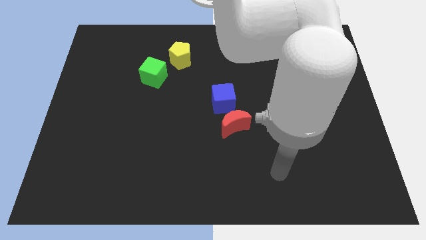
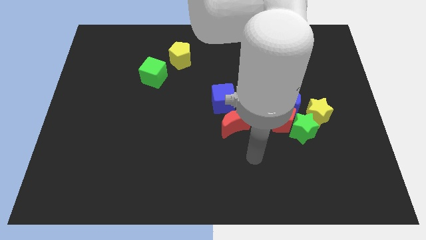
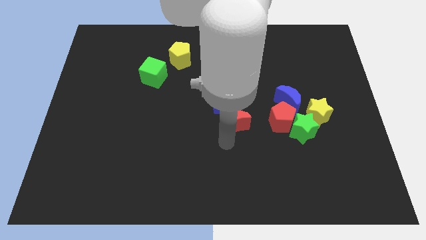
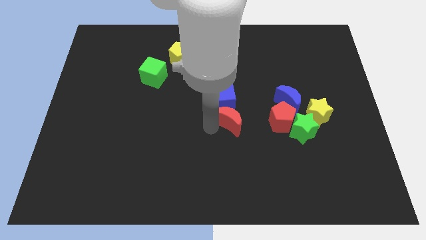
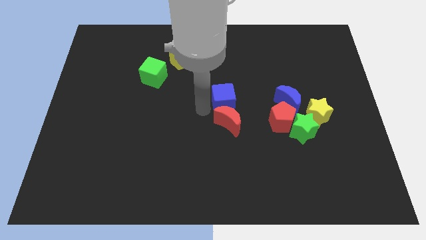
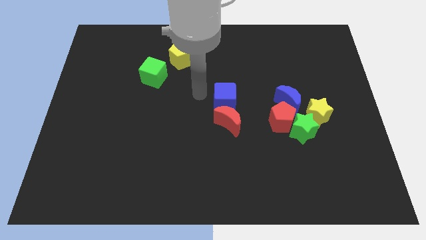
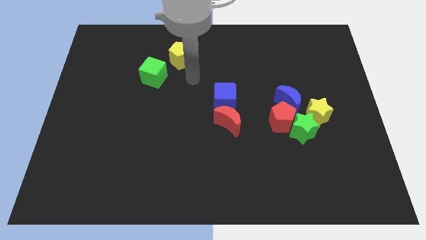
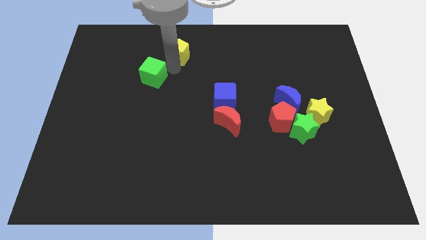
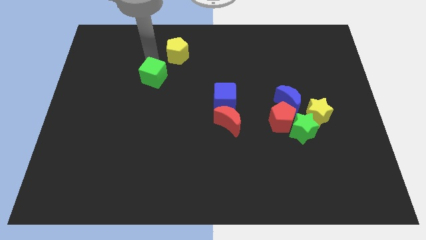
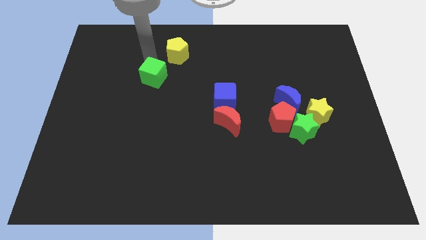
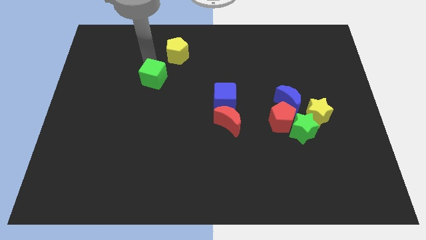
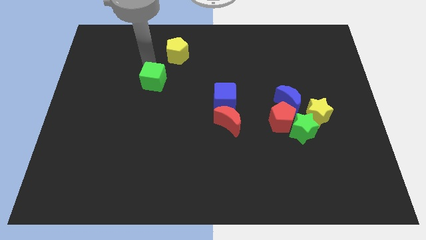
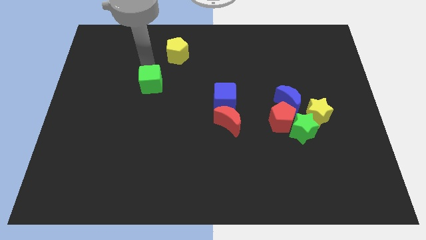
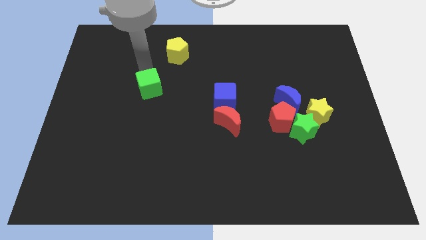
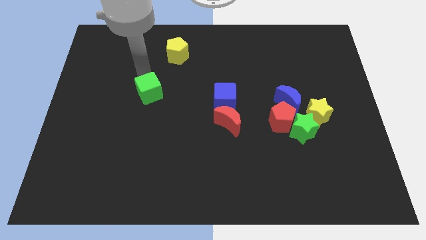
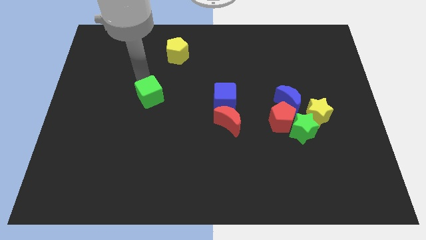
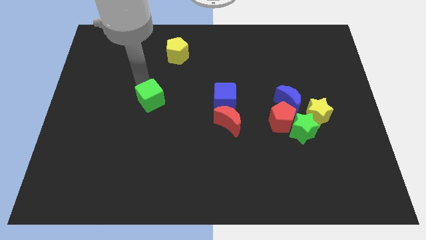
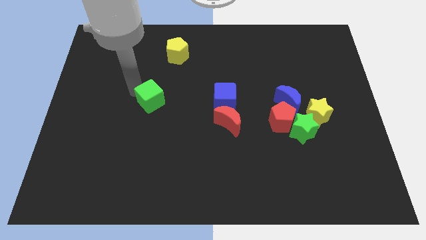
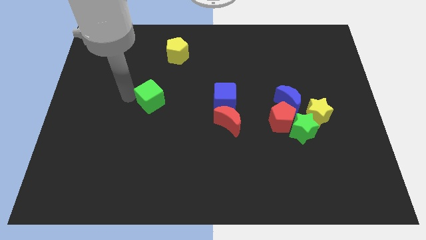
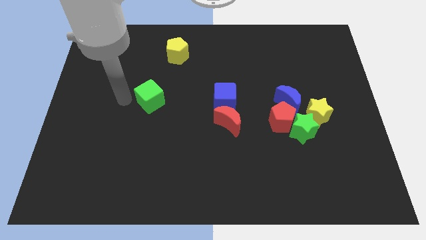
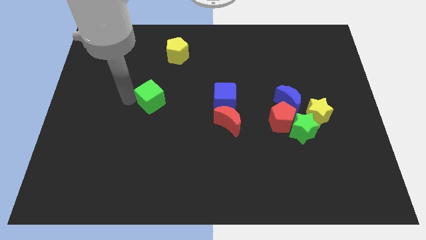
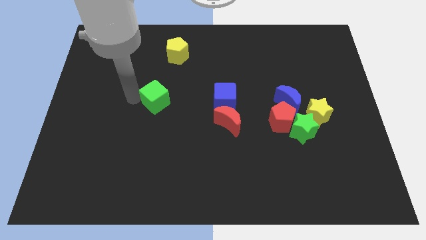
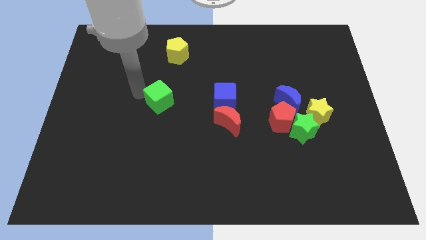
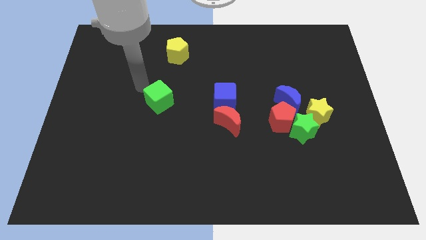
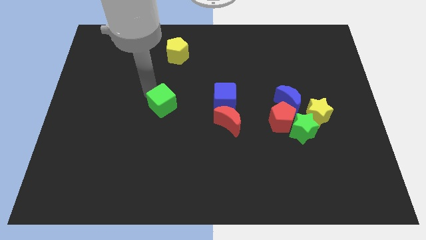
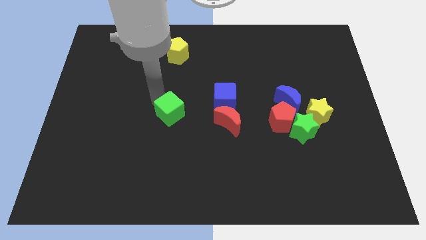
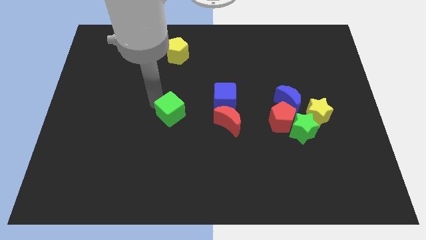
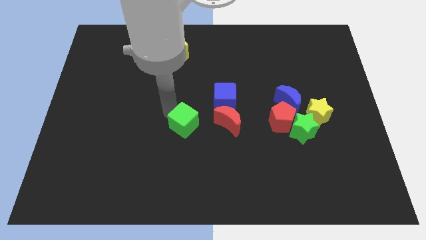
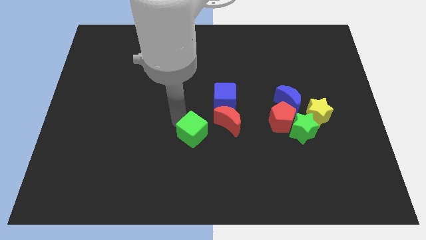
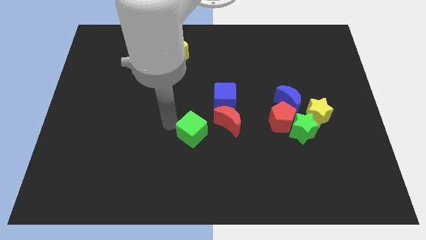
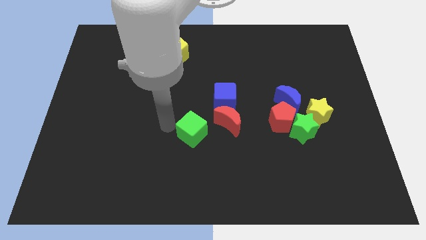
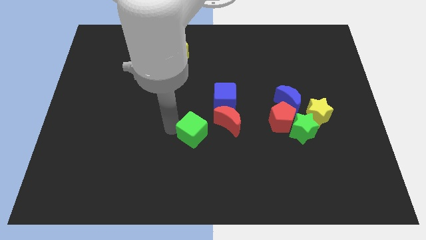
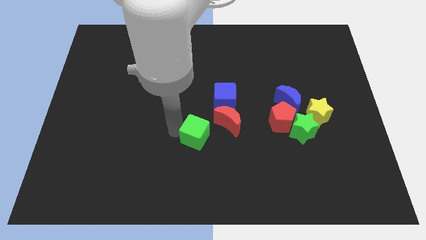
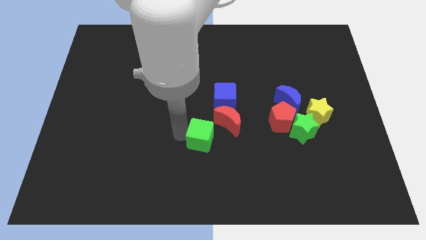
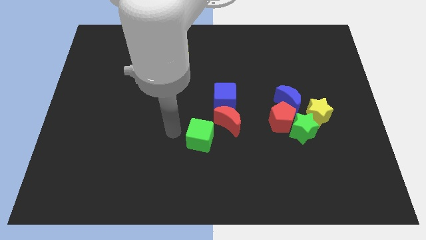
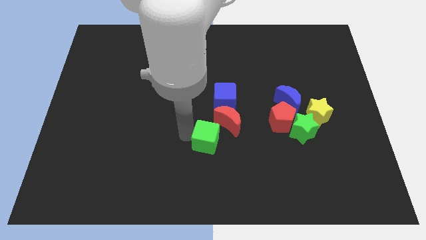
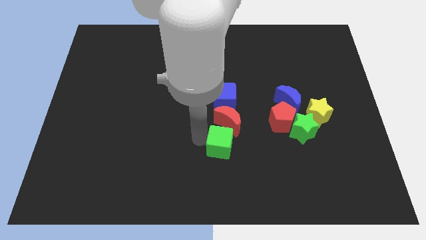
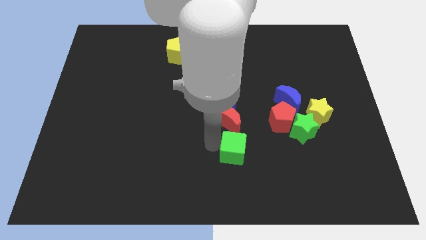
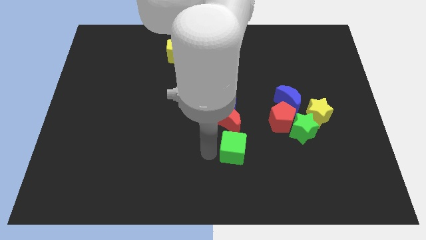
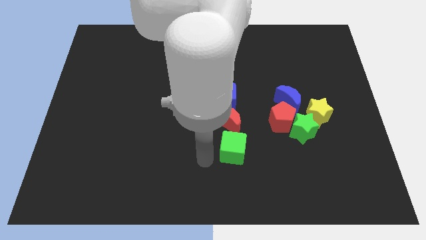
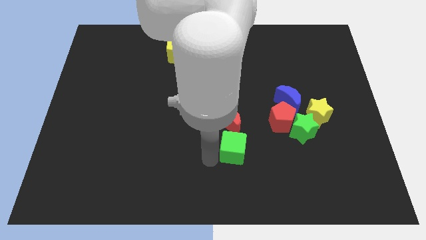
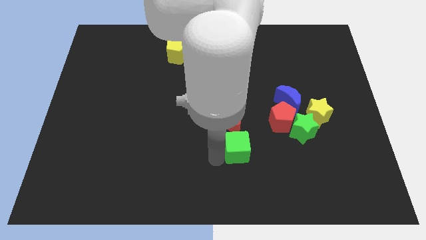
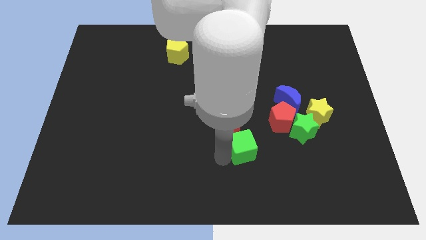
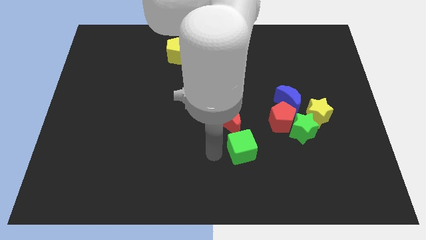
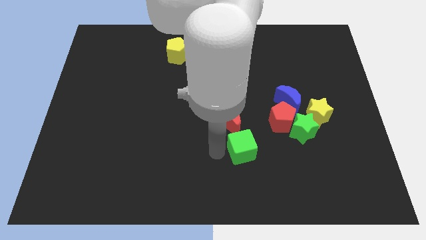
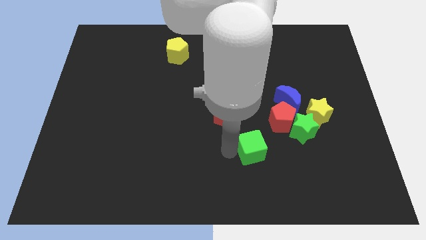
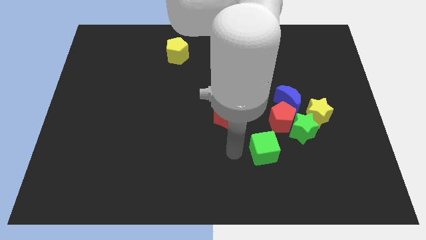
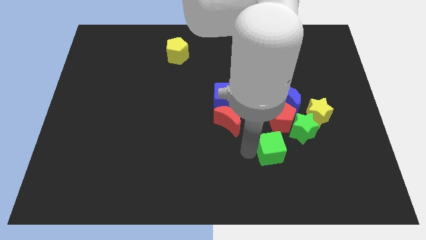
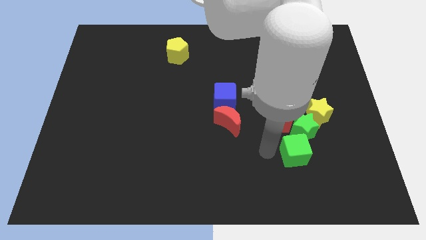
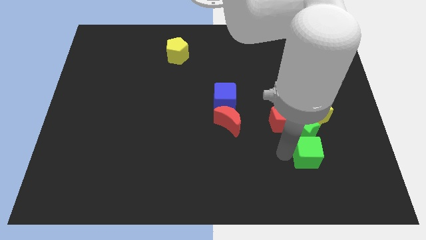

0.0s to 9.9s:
put the green cube to the bottom right side of the green star

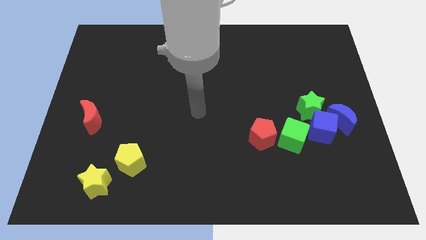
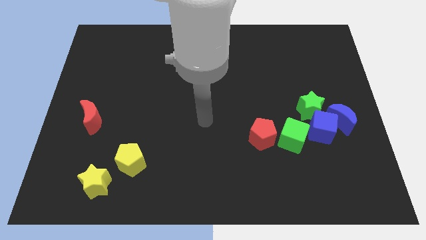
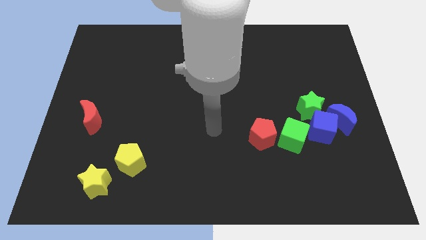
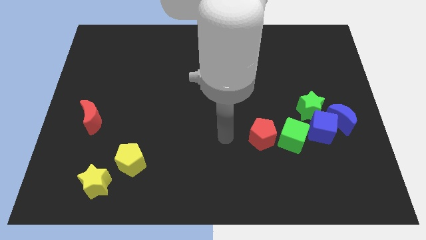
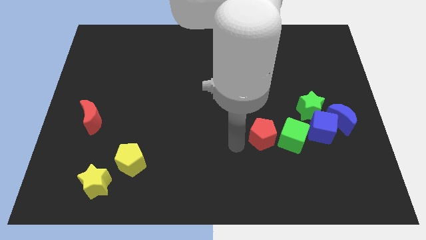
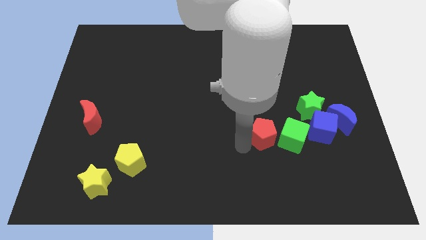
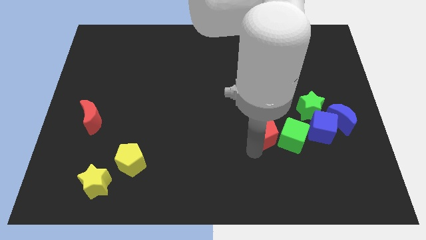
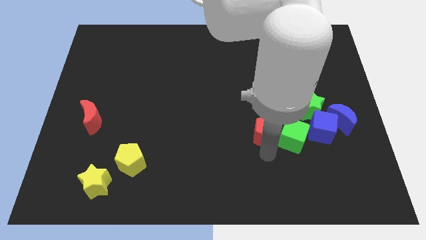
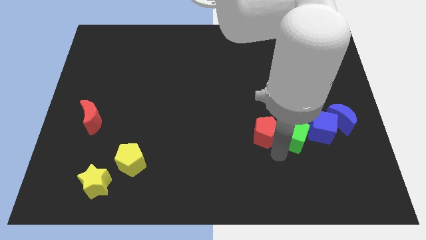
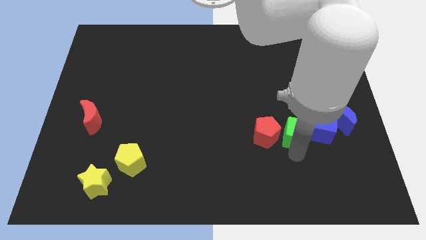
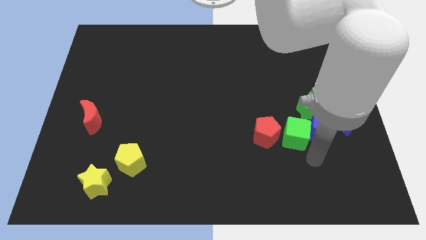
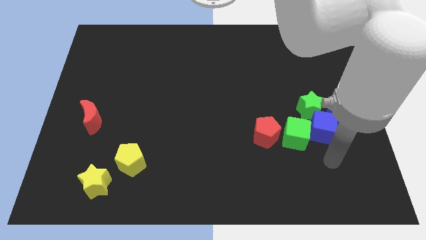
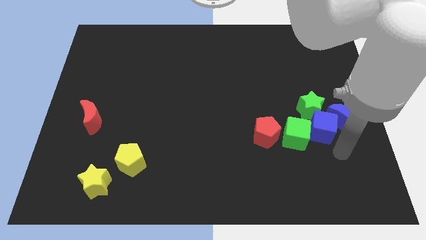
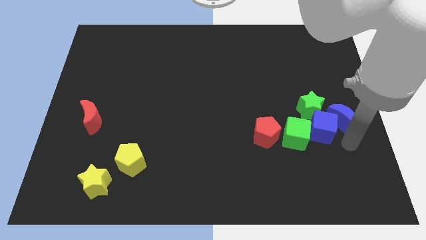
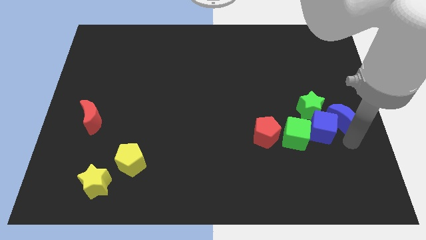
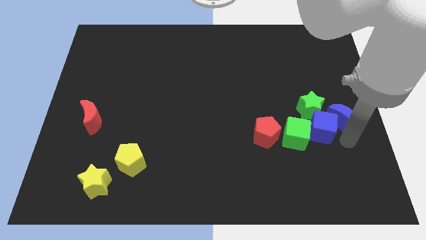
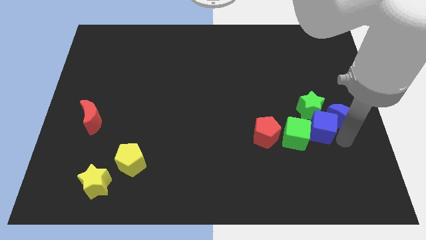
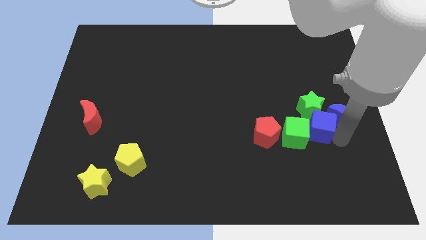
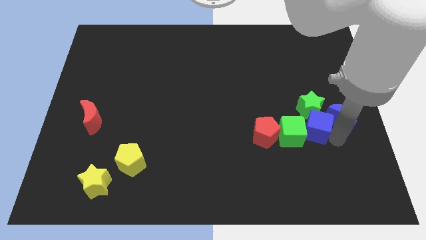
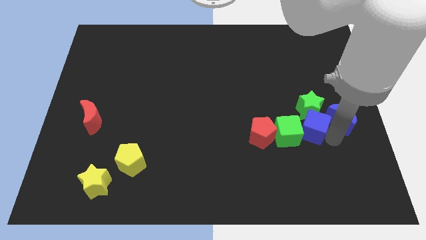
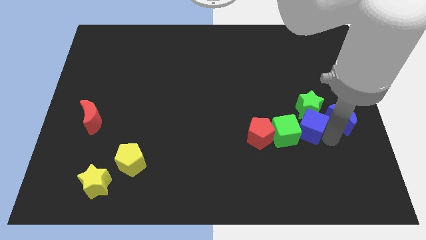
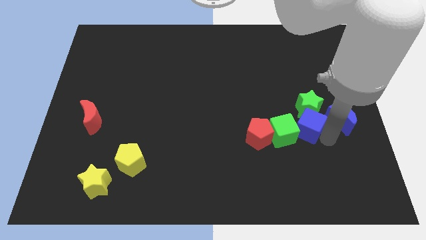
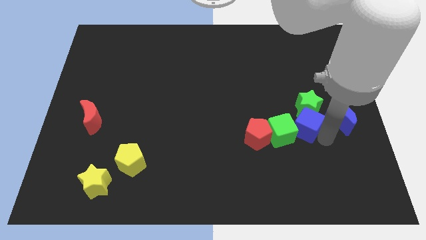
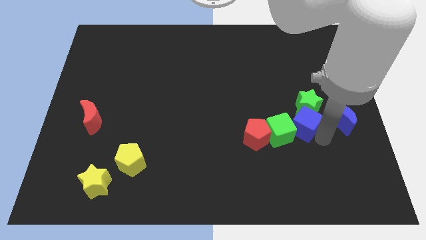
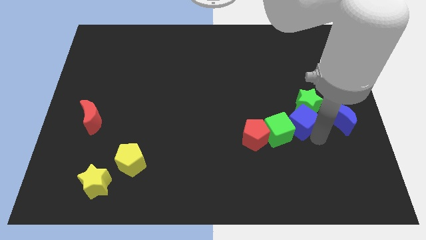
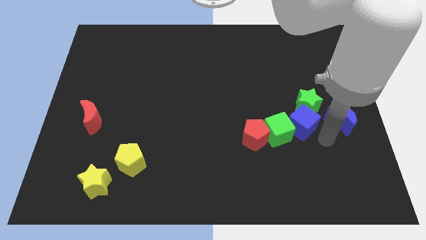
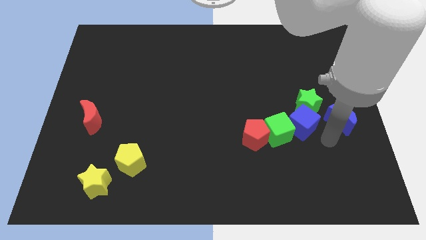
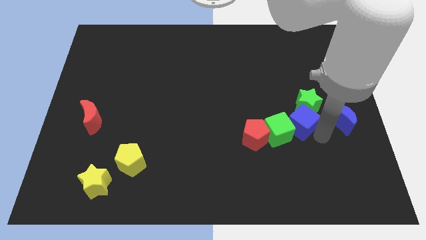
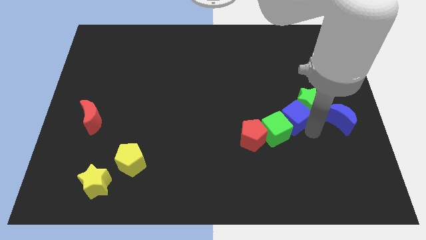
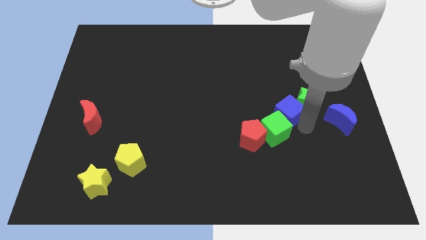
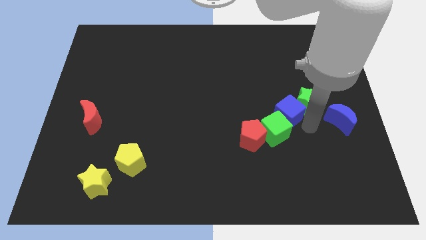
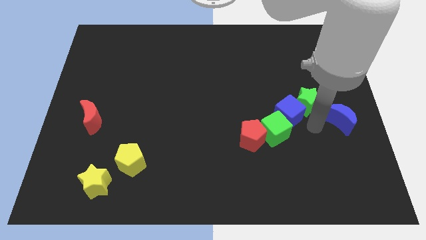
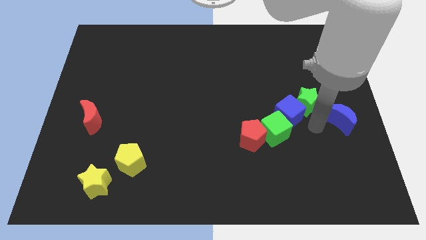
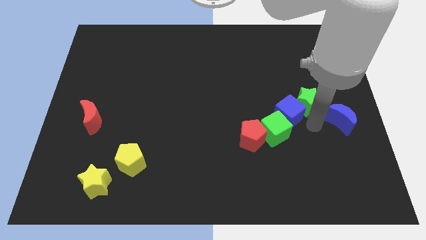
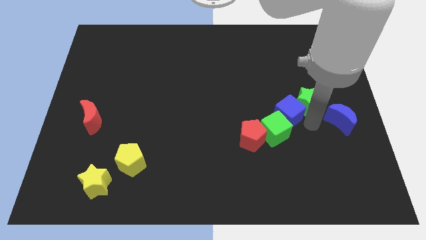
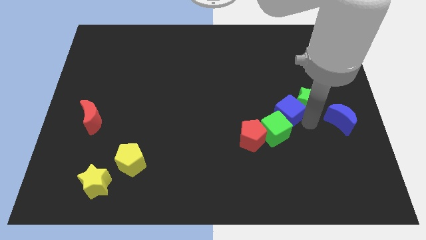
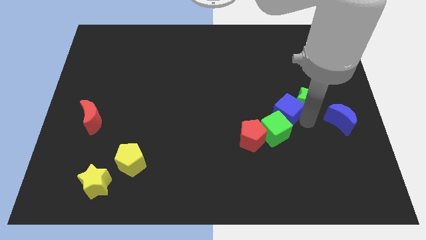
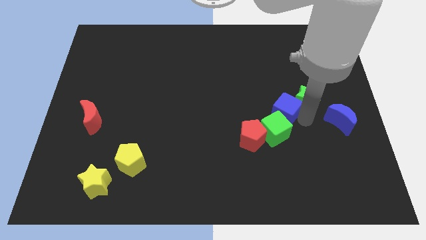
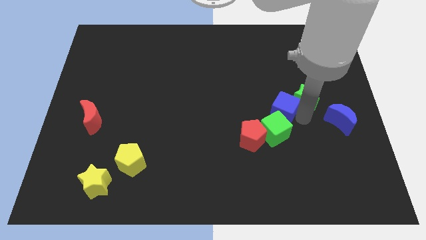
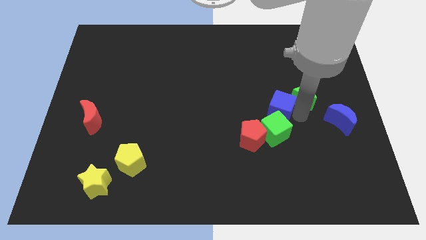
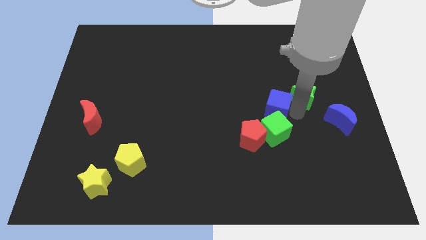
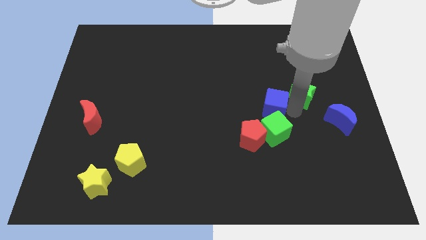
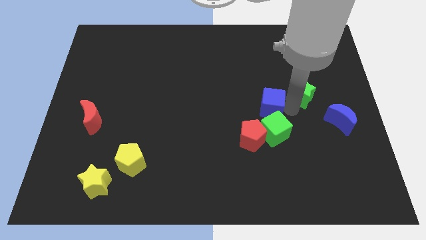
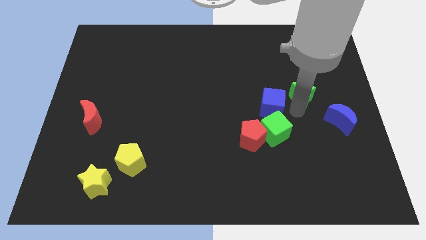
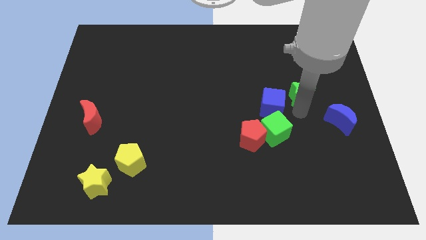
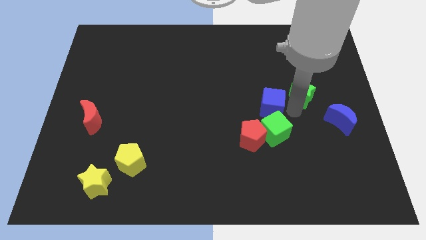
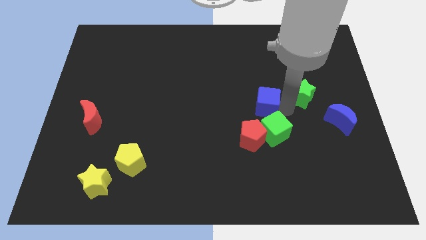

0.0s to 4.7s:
push the blue cube above the red pentagon
